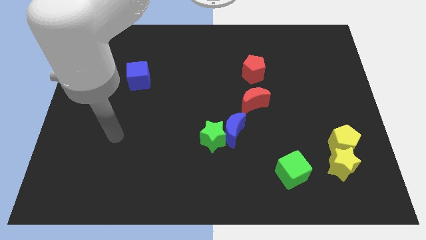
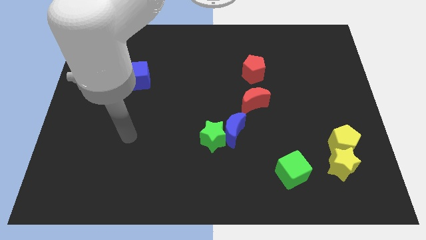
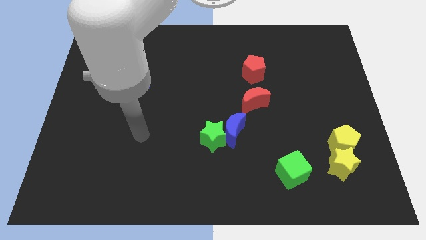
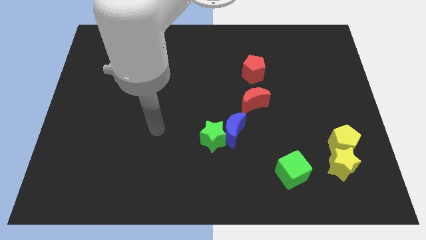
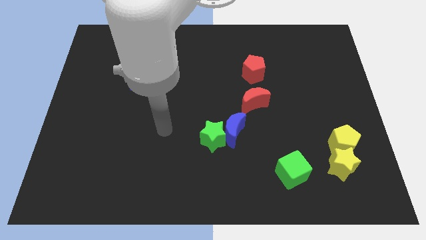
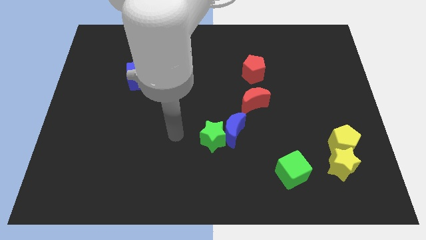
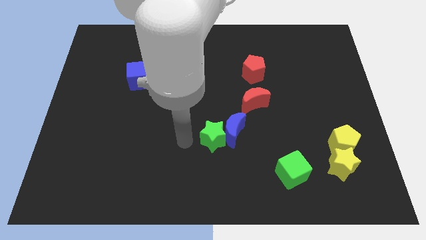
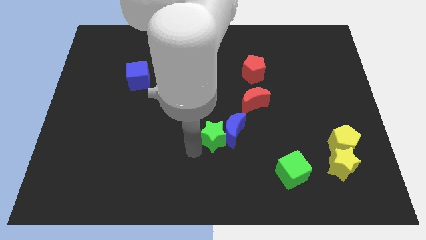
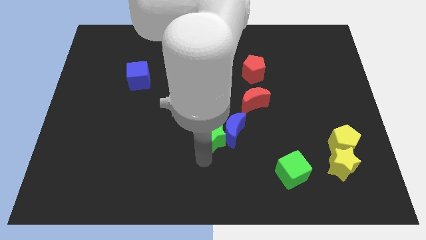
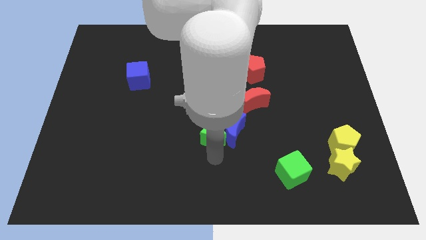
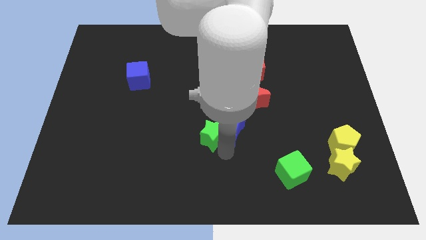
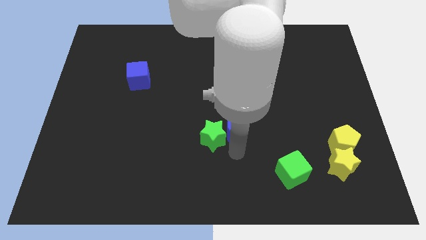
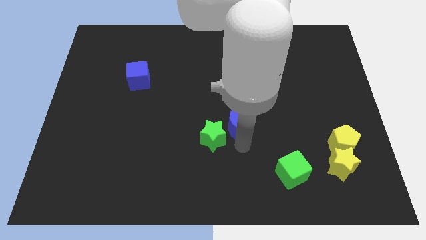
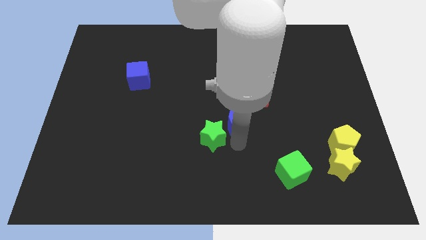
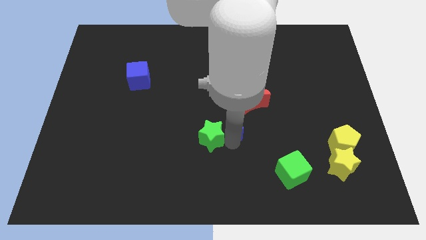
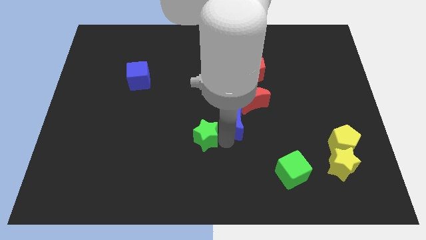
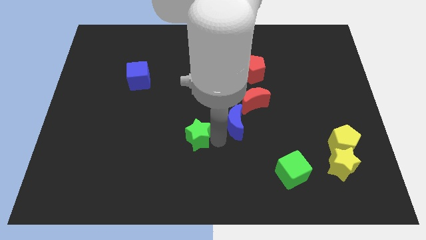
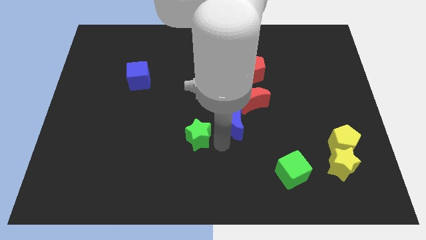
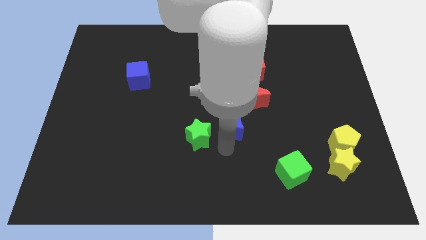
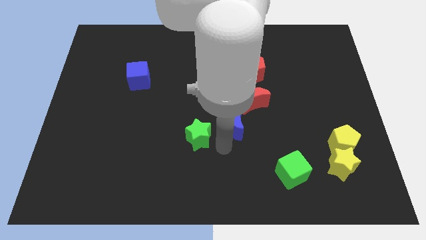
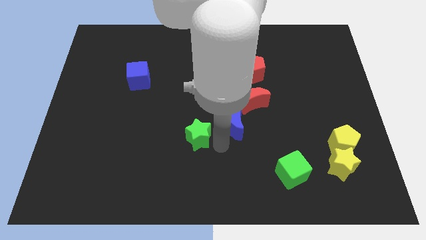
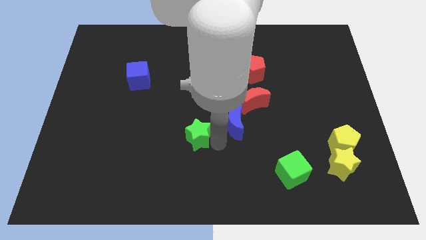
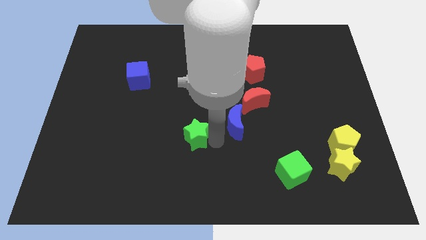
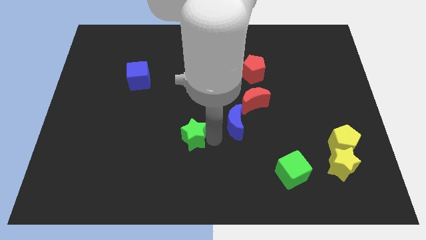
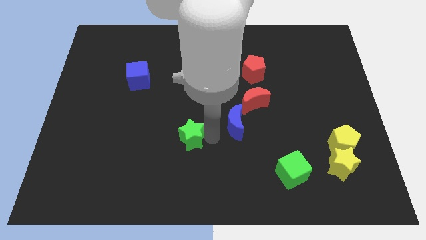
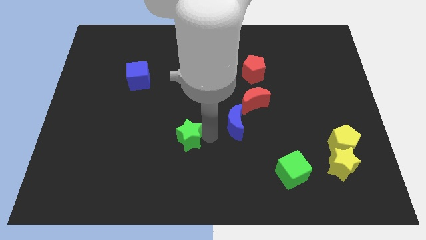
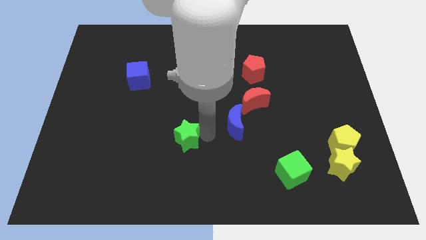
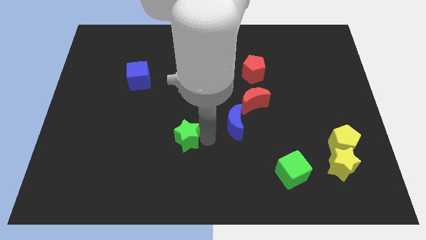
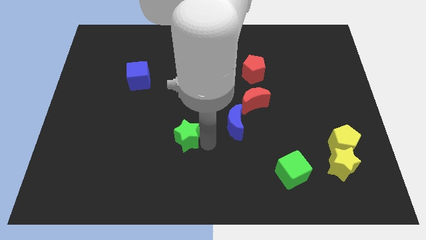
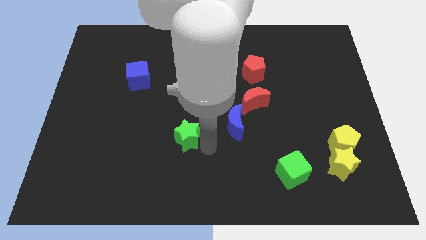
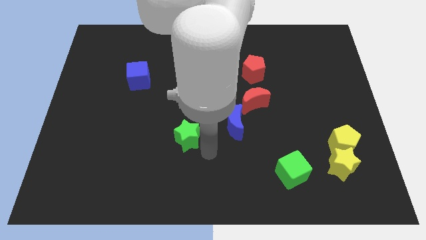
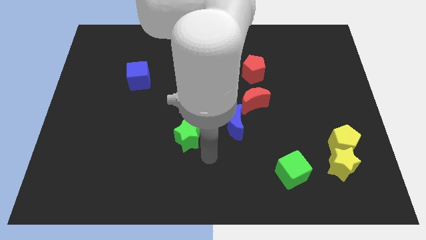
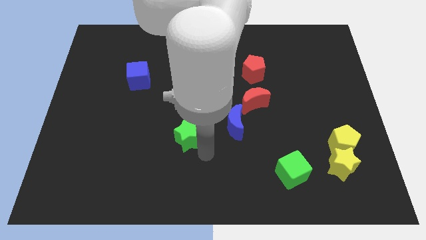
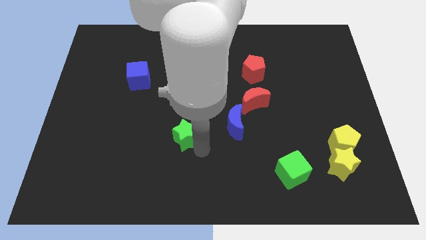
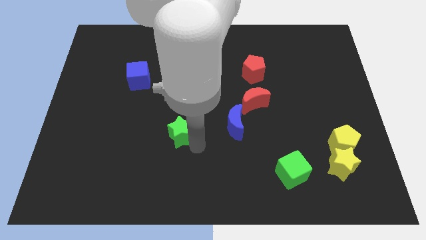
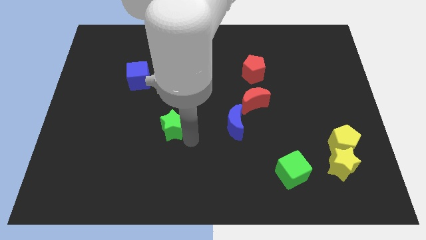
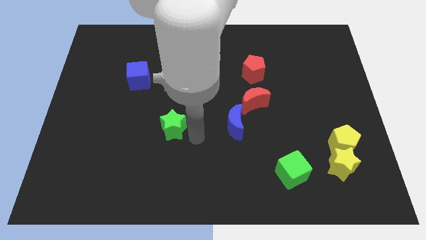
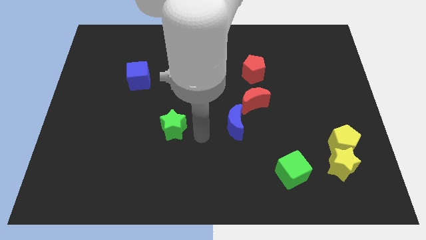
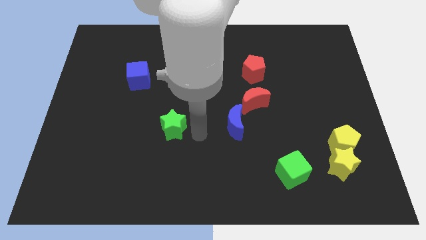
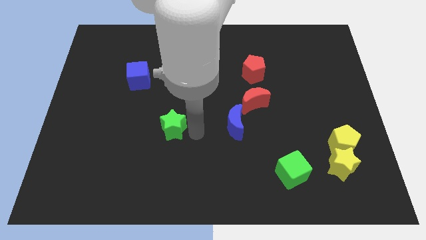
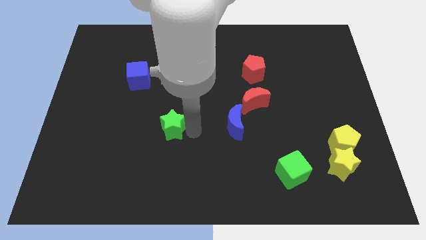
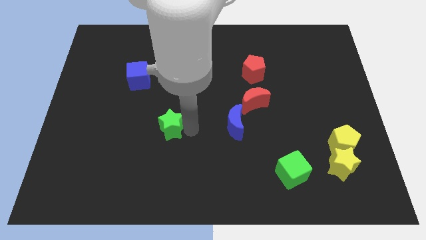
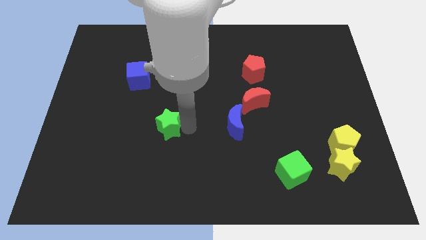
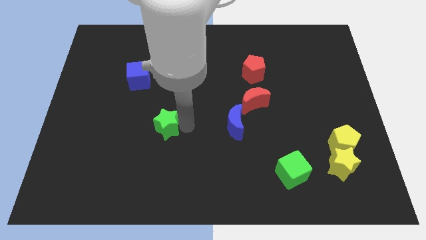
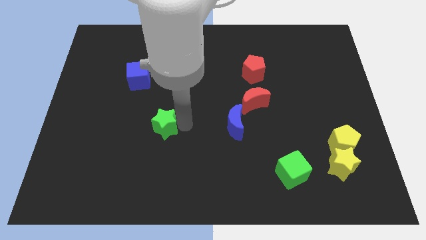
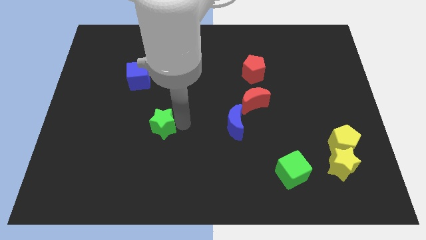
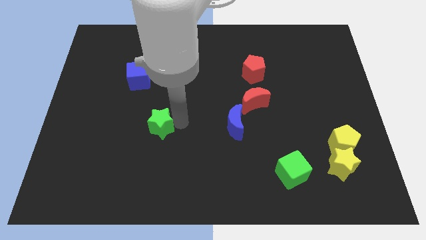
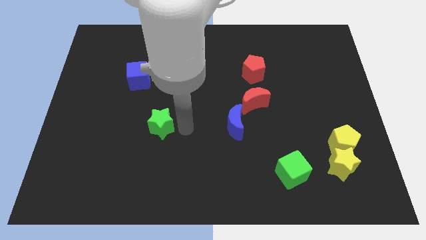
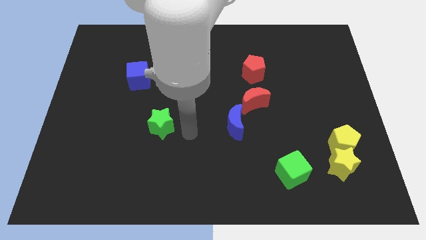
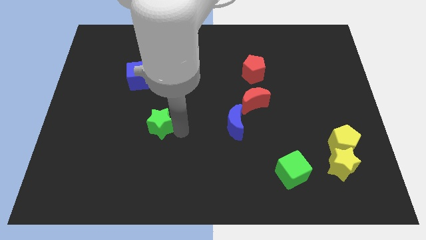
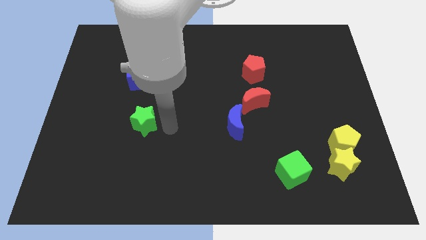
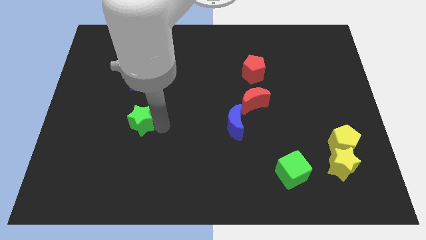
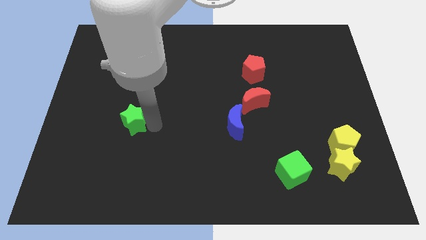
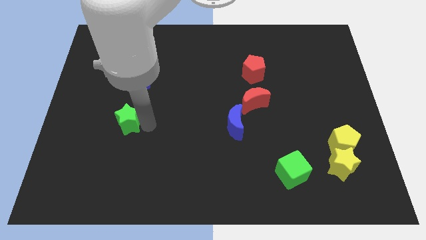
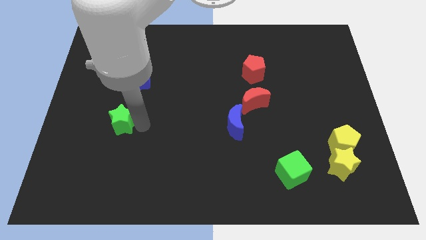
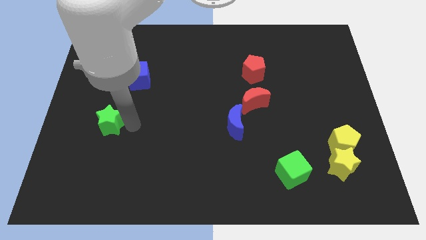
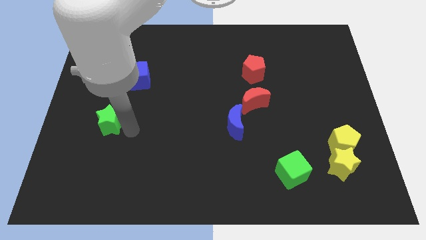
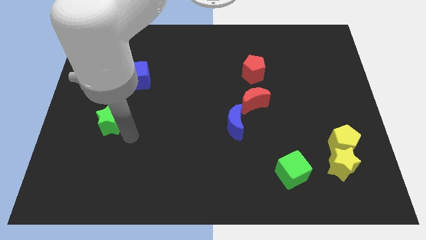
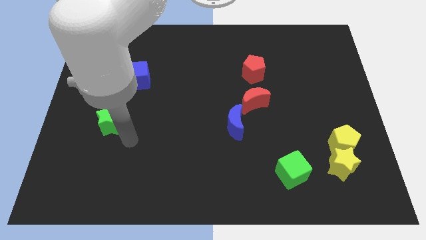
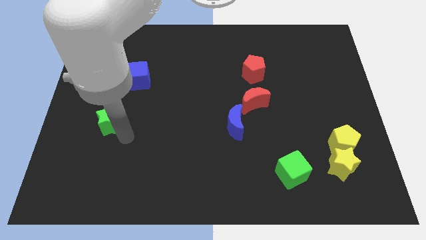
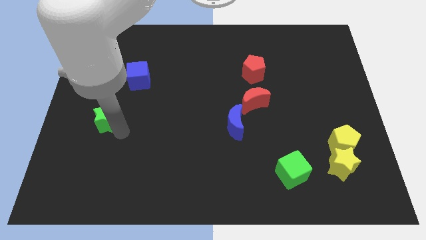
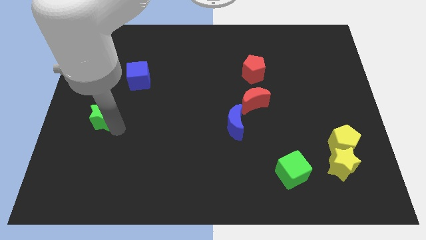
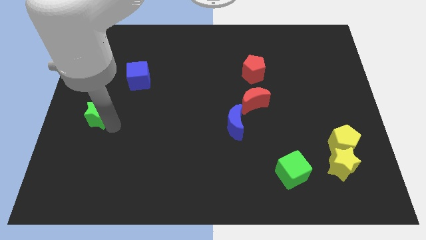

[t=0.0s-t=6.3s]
put the green star to the left side of the board

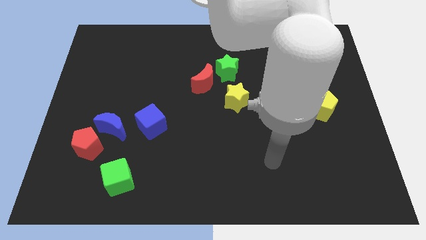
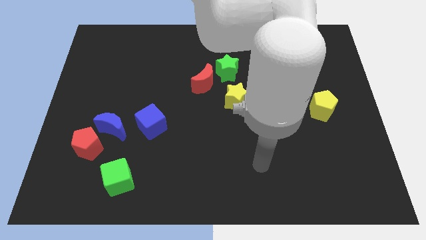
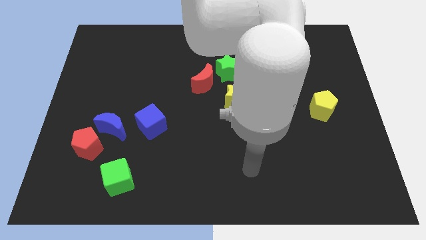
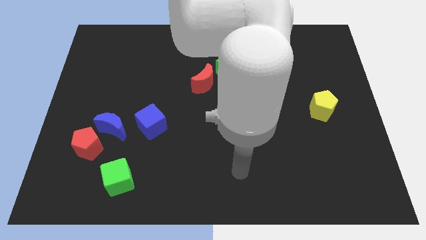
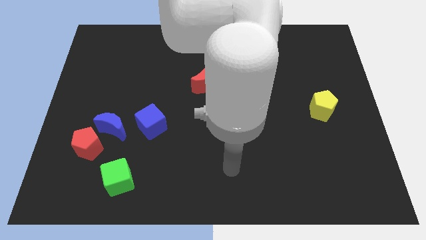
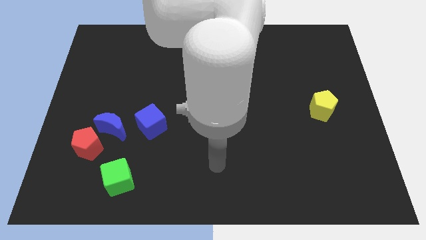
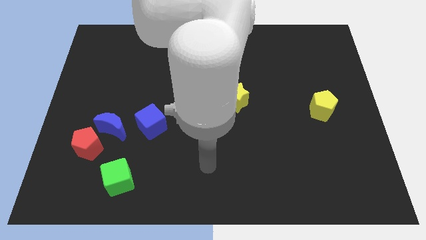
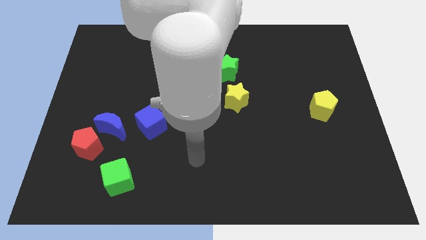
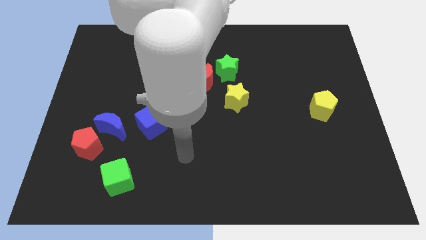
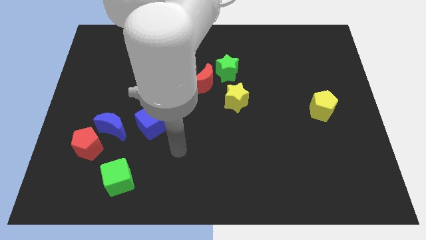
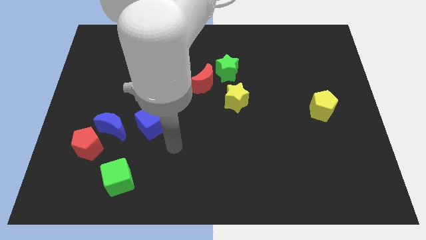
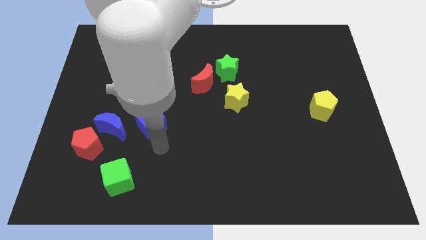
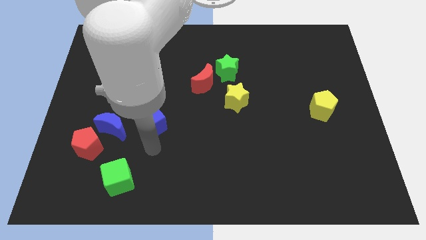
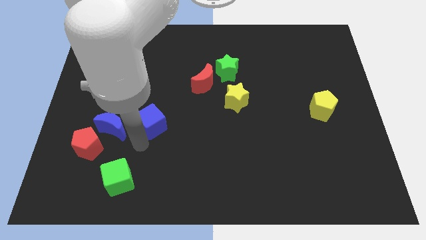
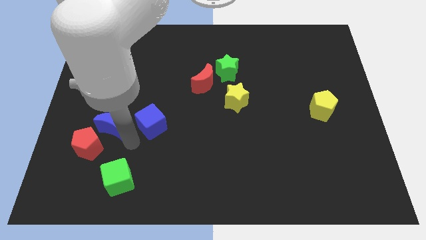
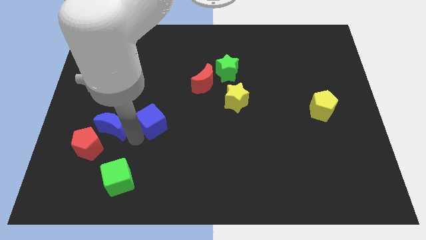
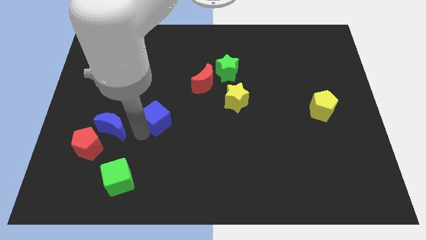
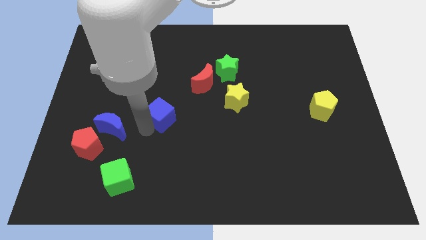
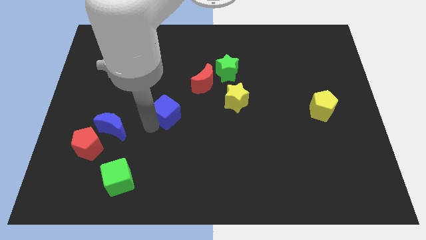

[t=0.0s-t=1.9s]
put the blue cube to the middle
